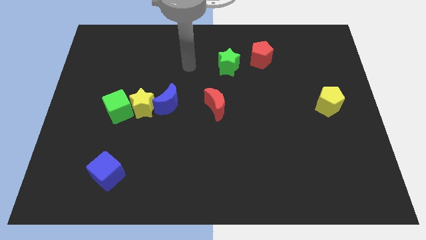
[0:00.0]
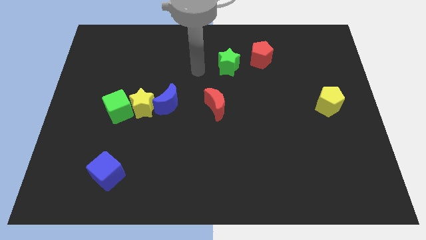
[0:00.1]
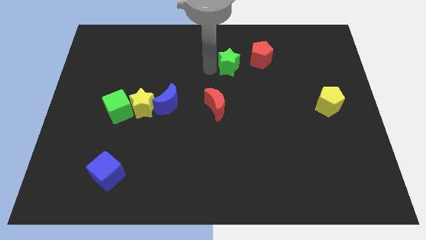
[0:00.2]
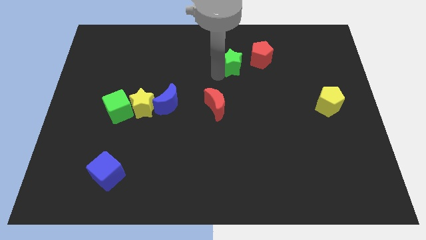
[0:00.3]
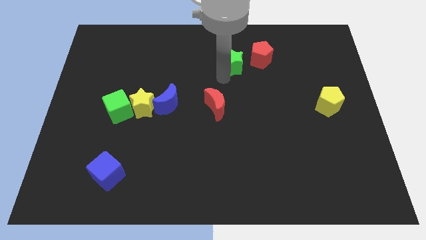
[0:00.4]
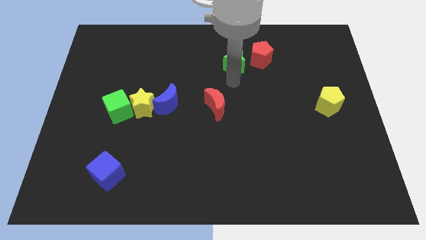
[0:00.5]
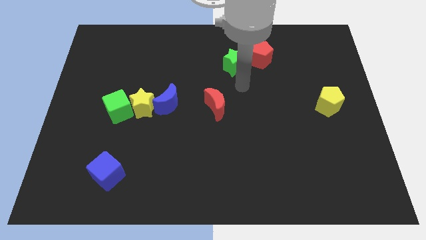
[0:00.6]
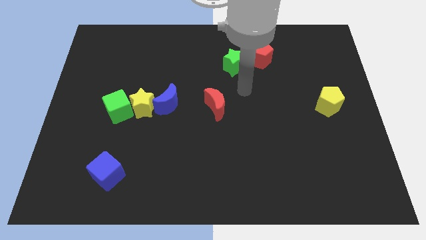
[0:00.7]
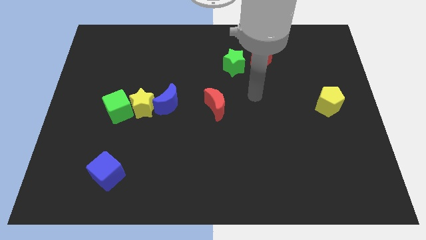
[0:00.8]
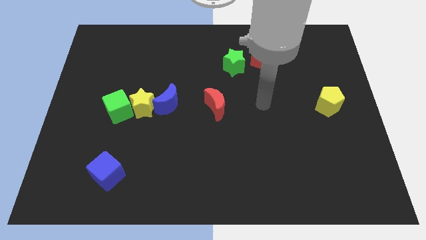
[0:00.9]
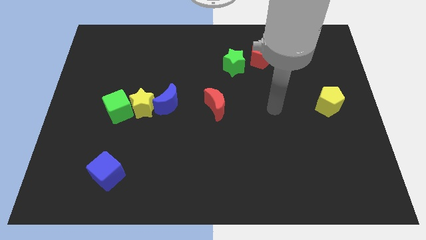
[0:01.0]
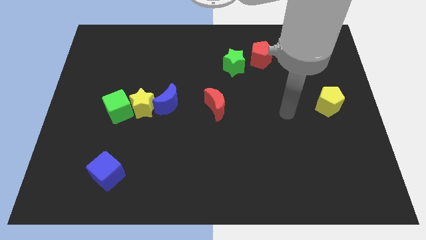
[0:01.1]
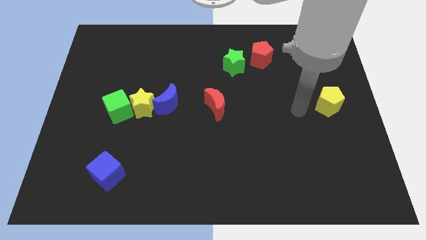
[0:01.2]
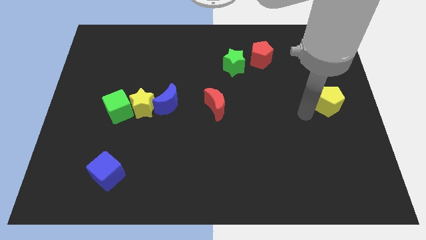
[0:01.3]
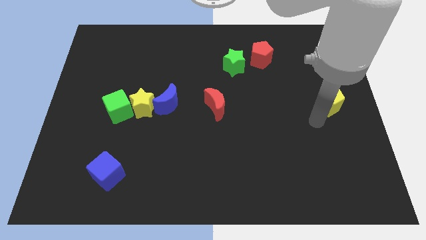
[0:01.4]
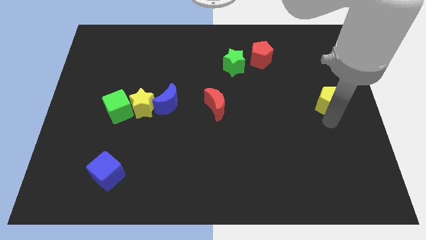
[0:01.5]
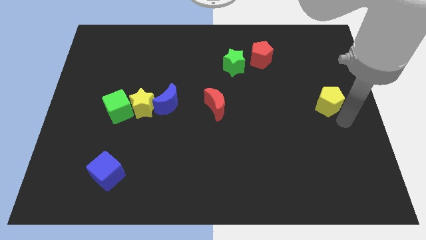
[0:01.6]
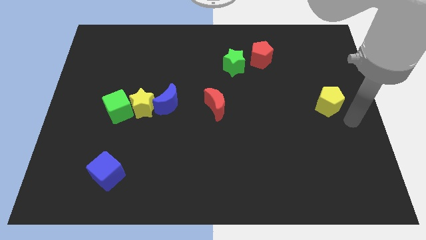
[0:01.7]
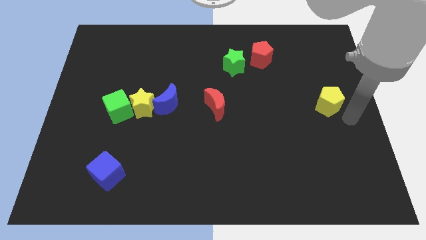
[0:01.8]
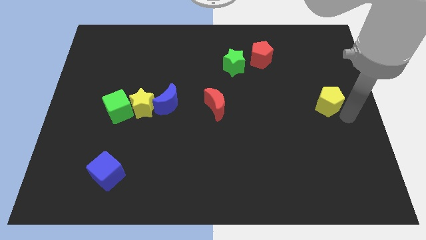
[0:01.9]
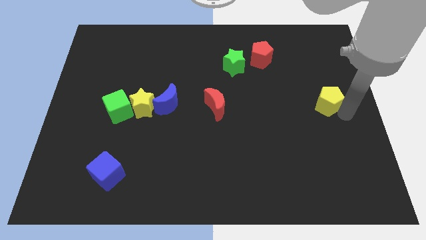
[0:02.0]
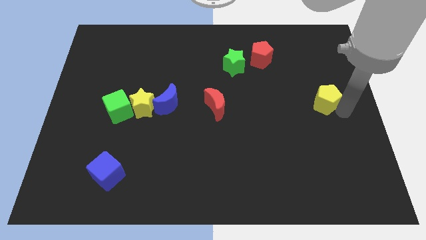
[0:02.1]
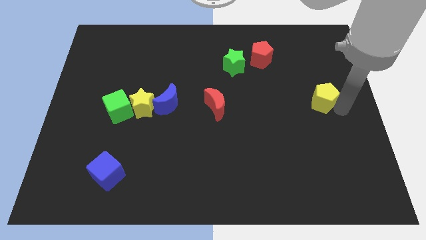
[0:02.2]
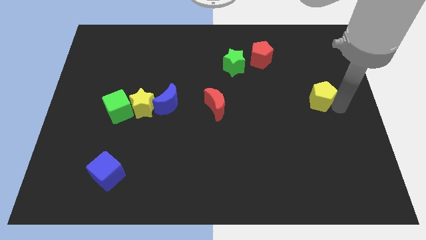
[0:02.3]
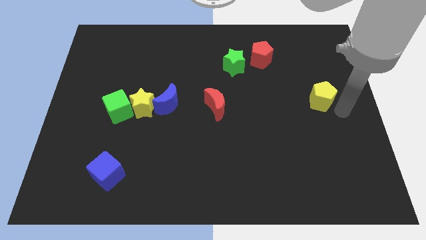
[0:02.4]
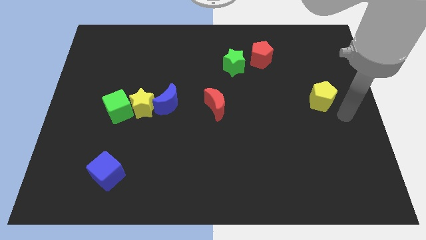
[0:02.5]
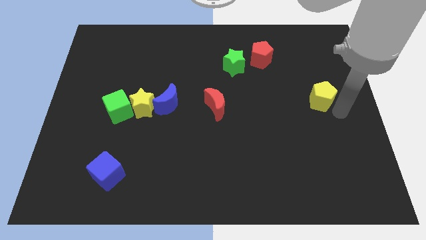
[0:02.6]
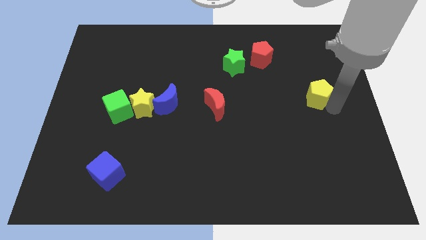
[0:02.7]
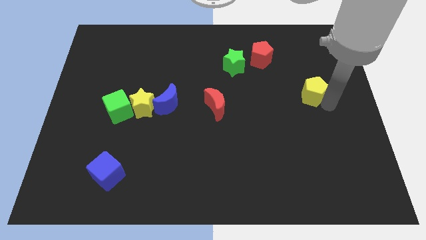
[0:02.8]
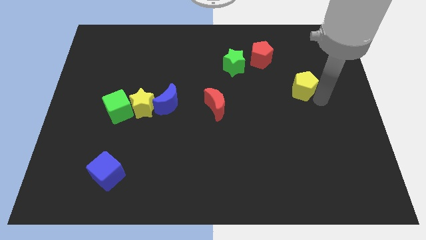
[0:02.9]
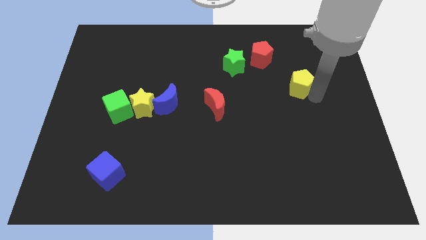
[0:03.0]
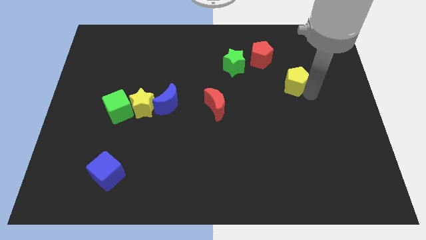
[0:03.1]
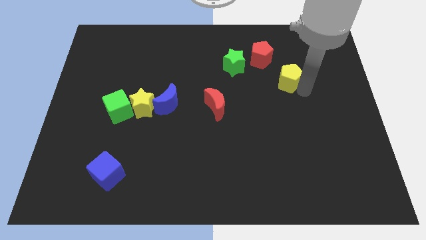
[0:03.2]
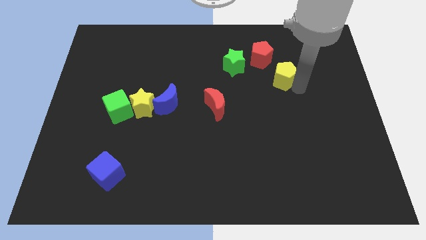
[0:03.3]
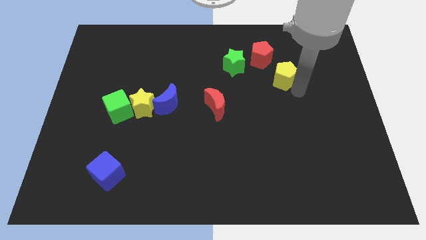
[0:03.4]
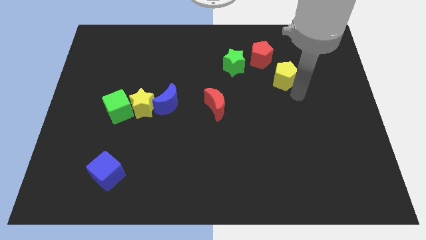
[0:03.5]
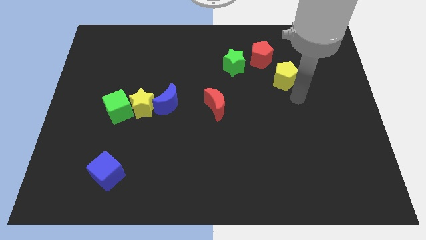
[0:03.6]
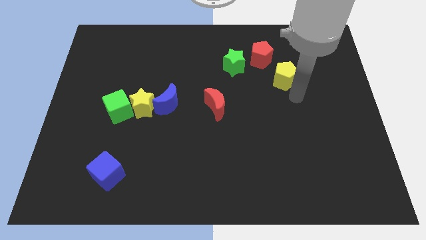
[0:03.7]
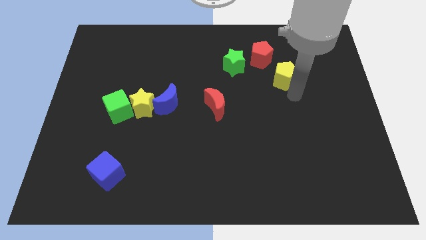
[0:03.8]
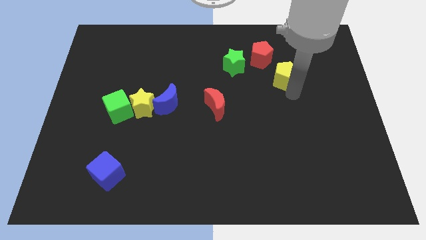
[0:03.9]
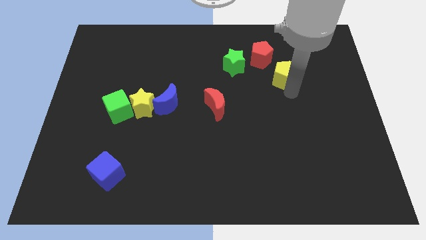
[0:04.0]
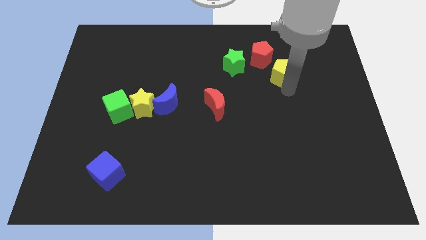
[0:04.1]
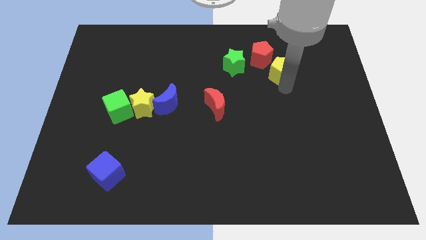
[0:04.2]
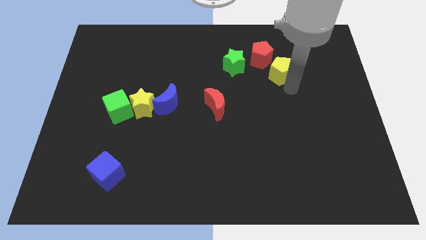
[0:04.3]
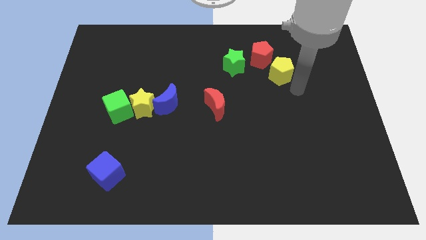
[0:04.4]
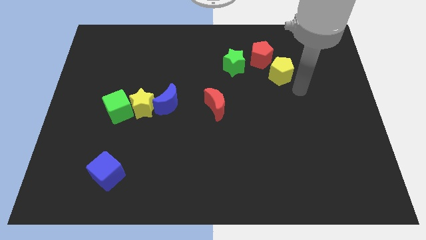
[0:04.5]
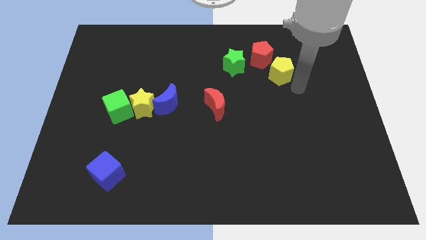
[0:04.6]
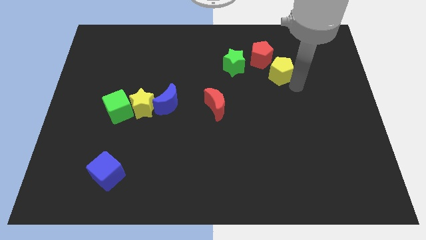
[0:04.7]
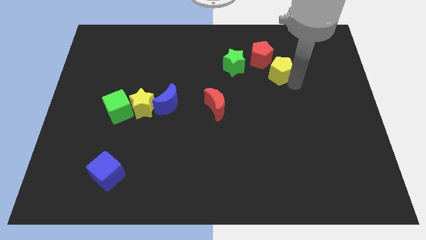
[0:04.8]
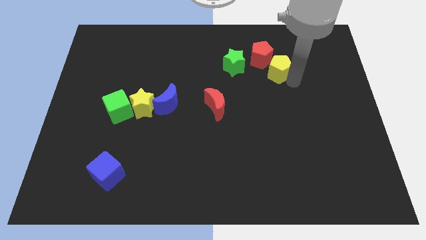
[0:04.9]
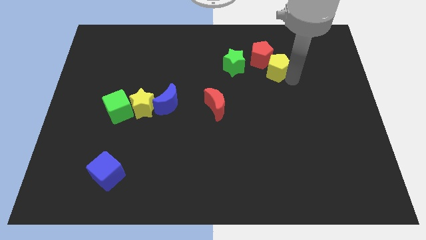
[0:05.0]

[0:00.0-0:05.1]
put the yellow pentagon towards the red pentagon

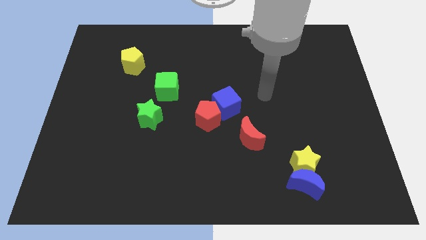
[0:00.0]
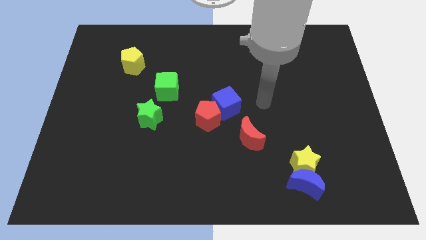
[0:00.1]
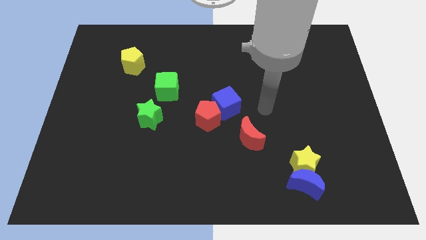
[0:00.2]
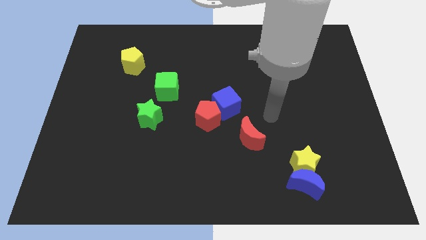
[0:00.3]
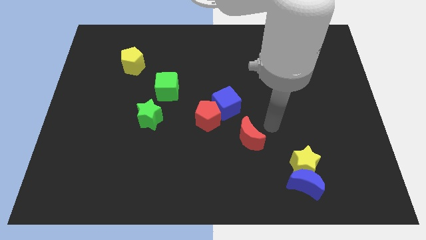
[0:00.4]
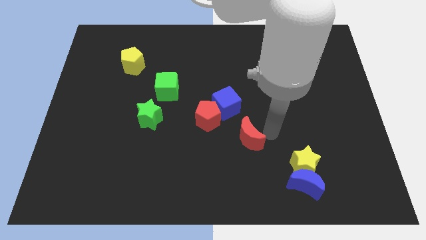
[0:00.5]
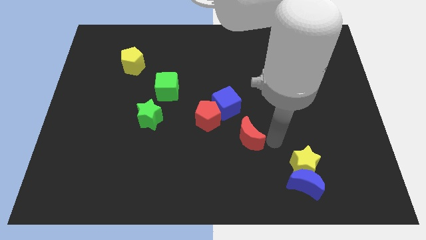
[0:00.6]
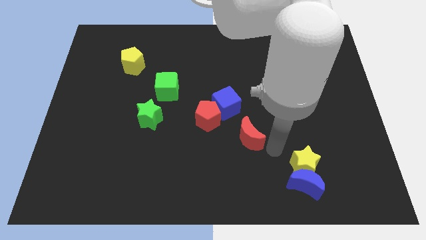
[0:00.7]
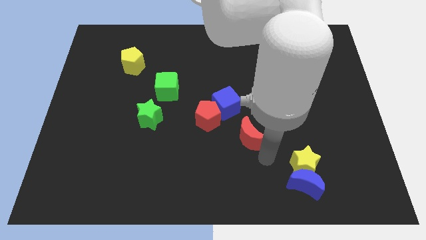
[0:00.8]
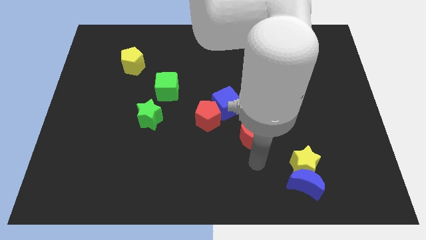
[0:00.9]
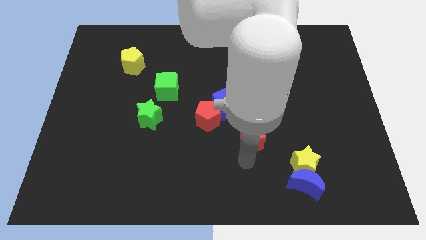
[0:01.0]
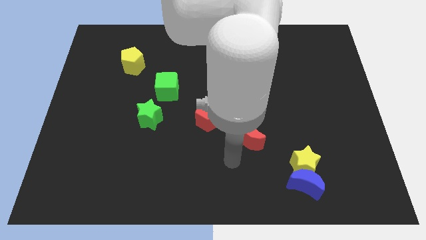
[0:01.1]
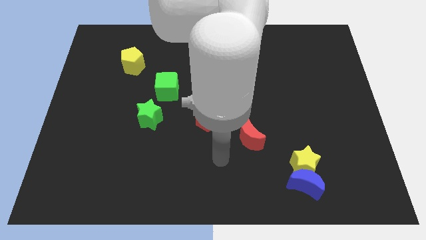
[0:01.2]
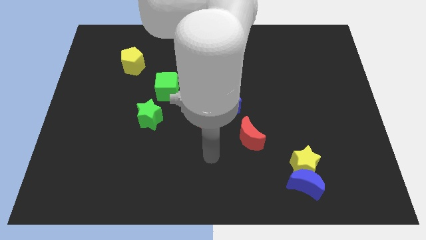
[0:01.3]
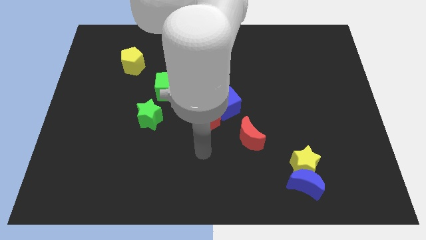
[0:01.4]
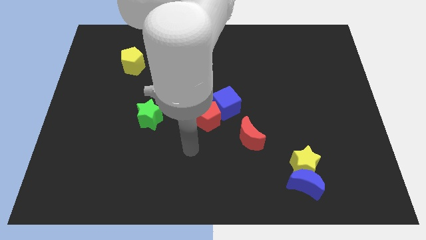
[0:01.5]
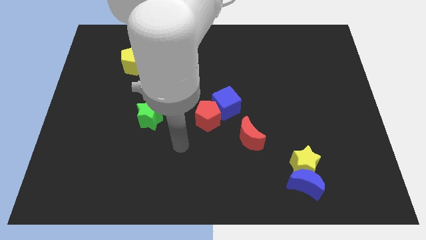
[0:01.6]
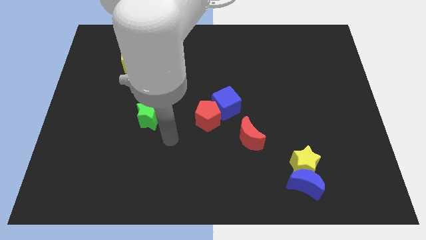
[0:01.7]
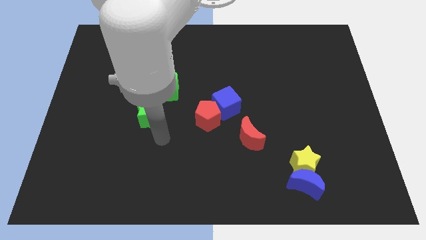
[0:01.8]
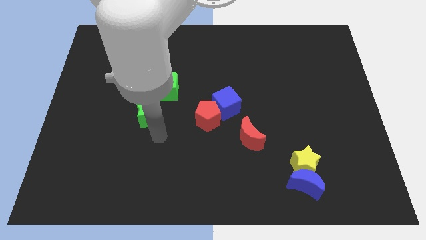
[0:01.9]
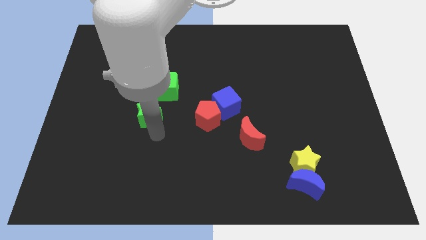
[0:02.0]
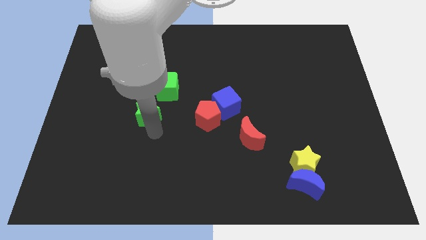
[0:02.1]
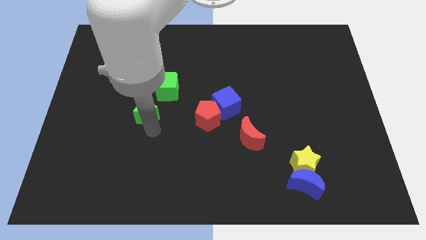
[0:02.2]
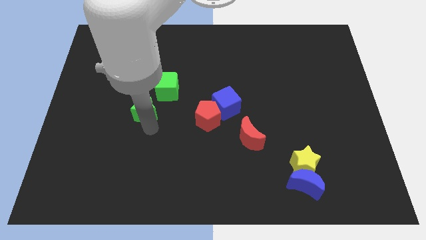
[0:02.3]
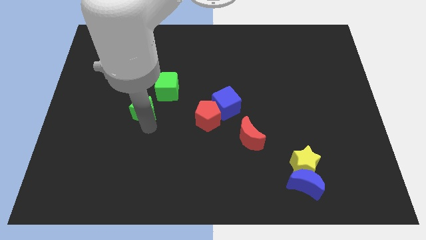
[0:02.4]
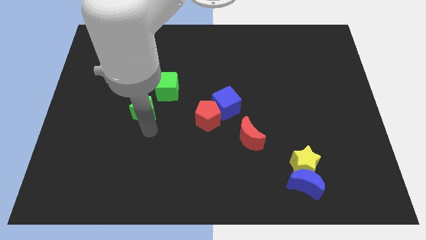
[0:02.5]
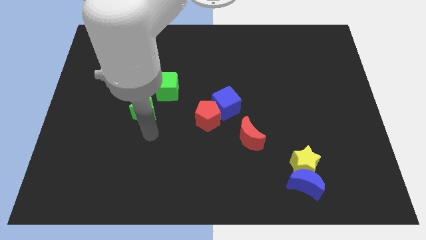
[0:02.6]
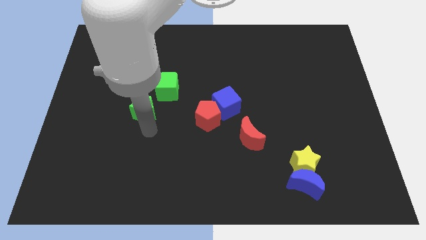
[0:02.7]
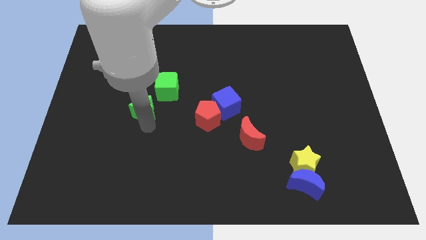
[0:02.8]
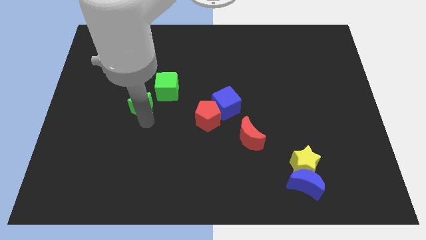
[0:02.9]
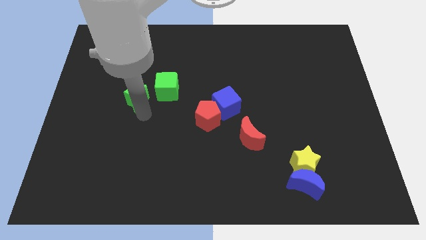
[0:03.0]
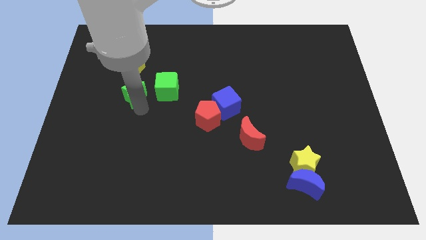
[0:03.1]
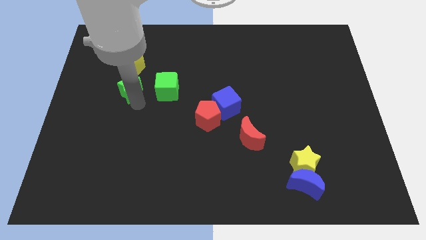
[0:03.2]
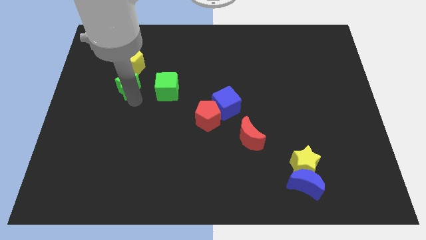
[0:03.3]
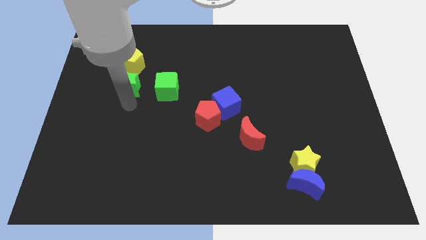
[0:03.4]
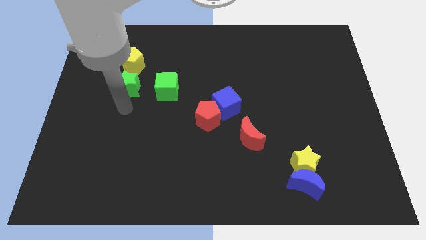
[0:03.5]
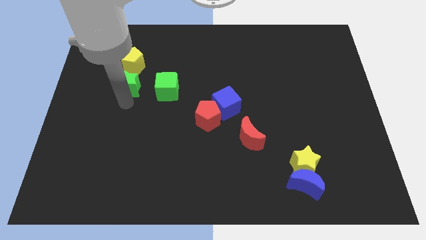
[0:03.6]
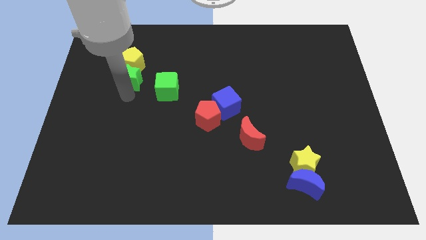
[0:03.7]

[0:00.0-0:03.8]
move the green star close to the yellow pentagon
